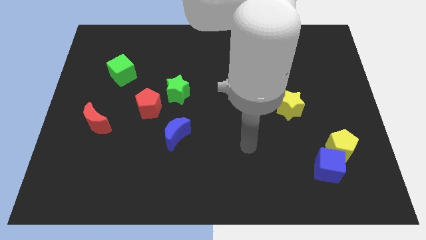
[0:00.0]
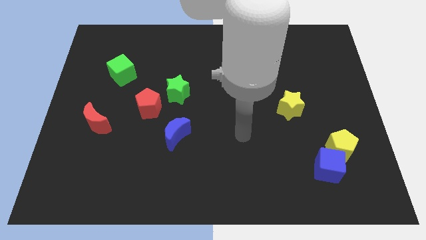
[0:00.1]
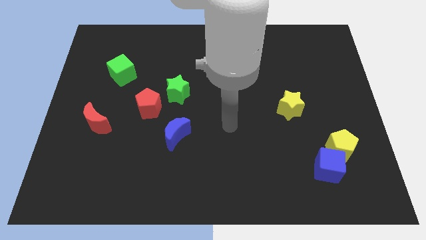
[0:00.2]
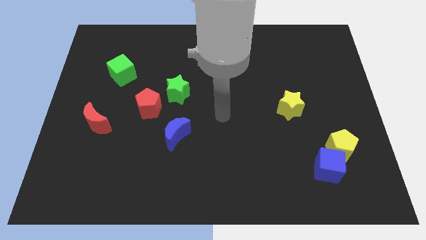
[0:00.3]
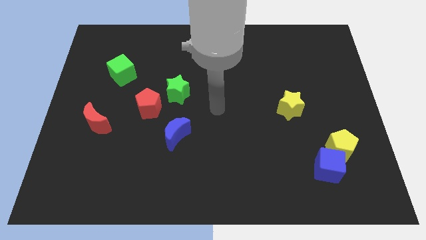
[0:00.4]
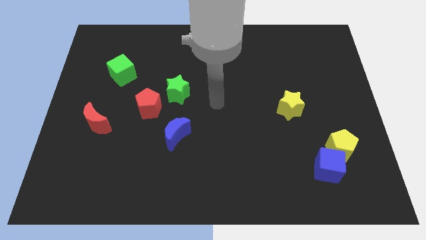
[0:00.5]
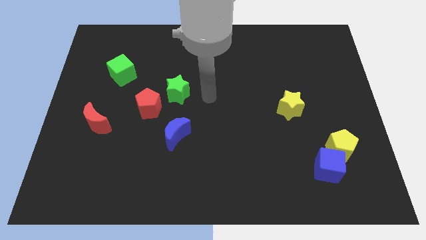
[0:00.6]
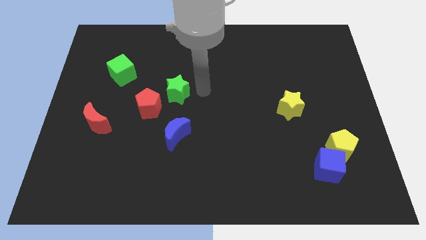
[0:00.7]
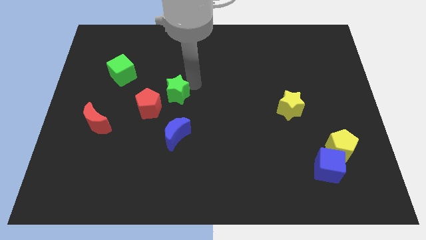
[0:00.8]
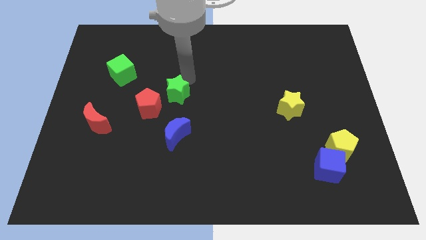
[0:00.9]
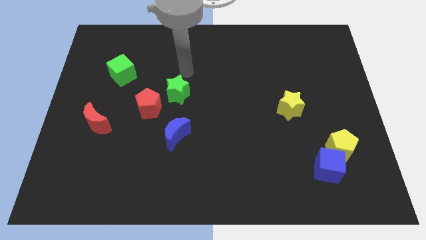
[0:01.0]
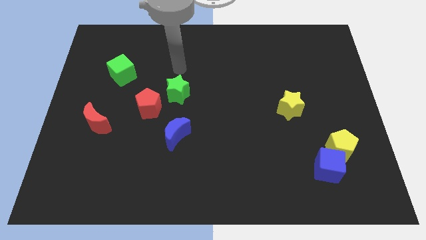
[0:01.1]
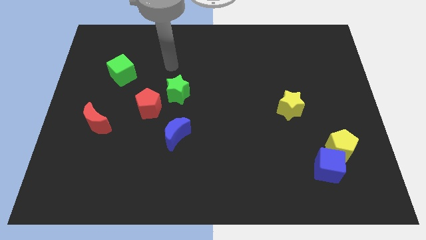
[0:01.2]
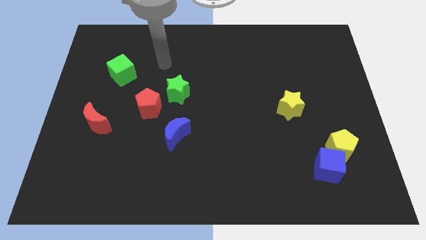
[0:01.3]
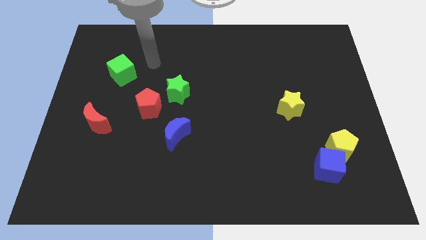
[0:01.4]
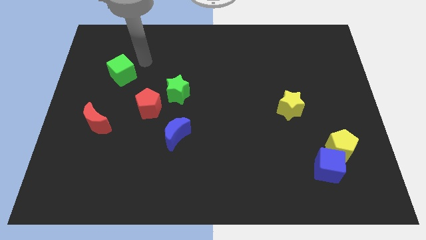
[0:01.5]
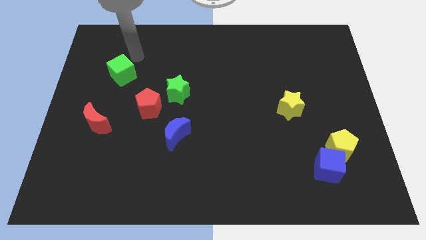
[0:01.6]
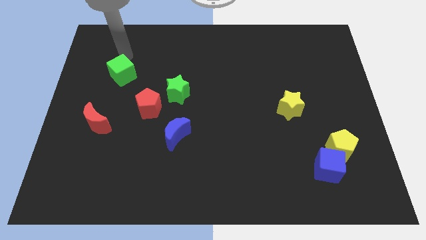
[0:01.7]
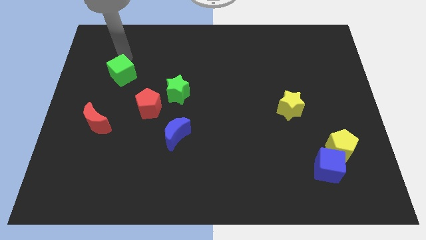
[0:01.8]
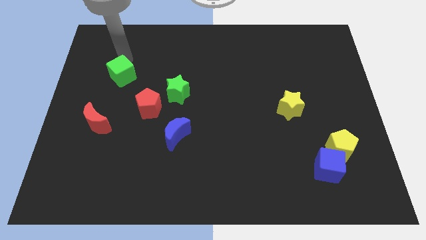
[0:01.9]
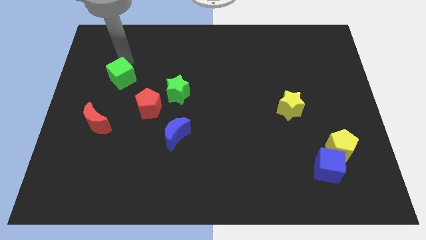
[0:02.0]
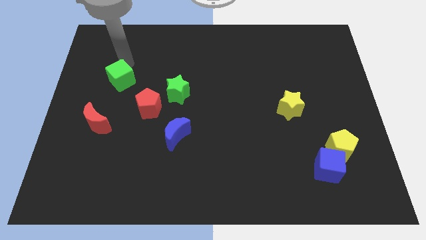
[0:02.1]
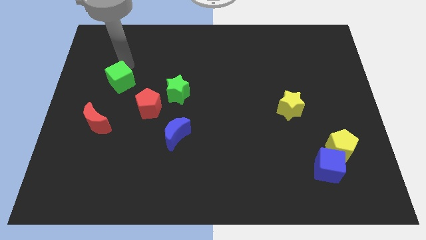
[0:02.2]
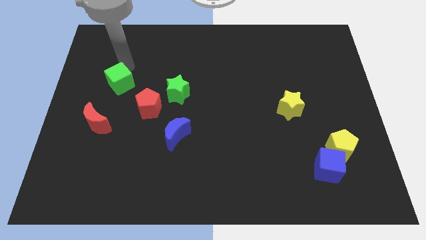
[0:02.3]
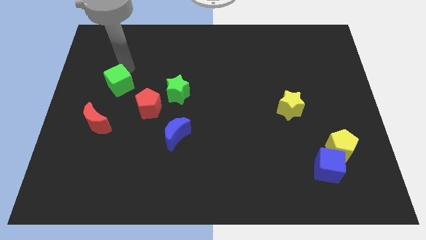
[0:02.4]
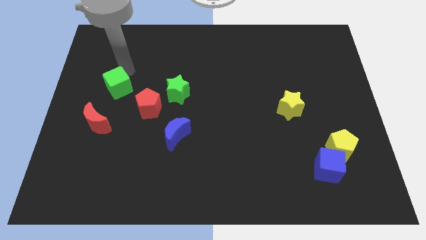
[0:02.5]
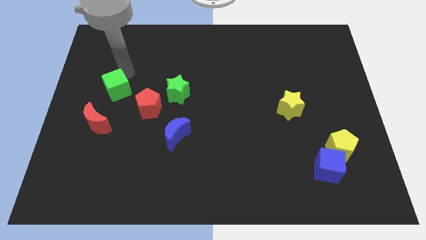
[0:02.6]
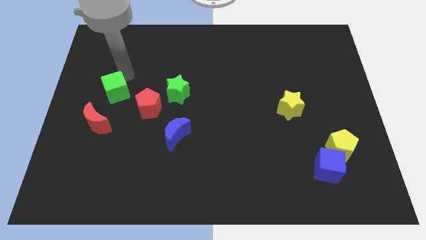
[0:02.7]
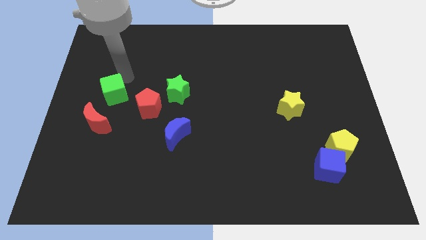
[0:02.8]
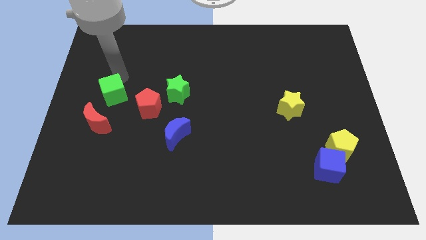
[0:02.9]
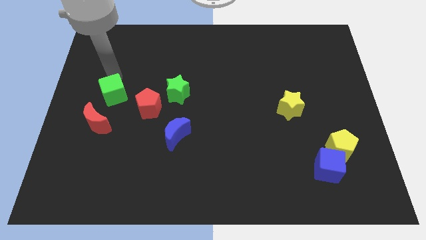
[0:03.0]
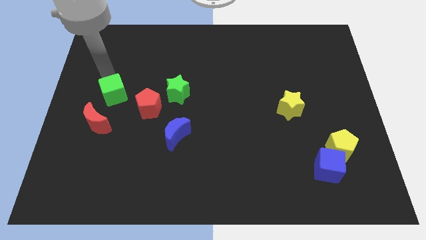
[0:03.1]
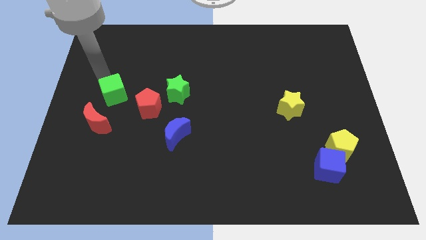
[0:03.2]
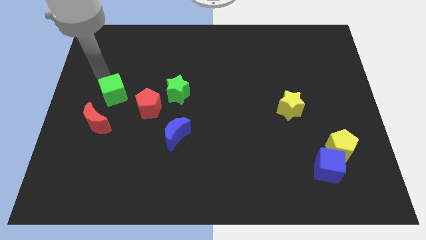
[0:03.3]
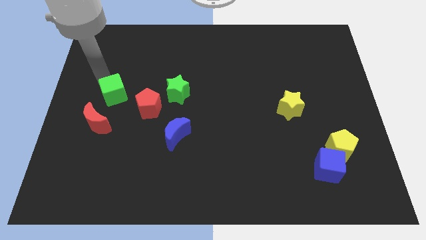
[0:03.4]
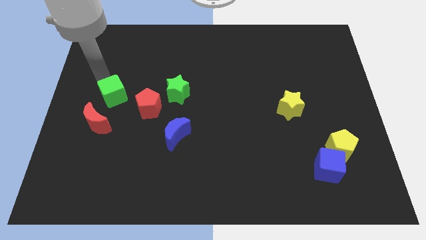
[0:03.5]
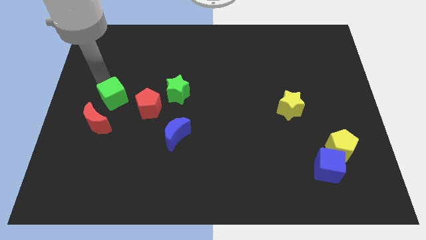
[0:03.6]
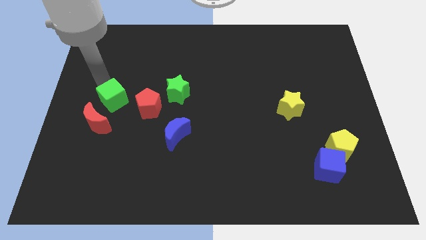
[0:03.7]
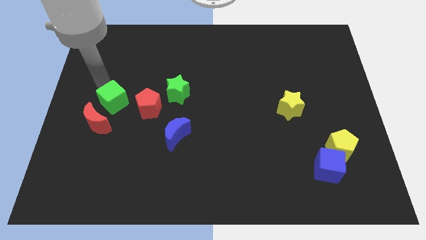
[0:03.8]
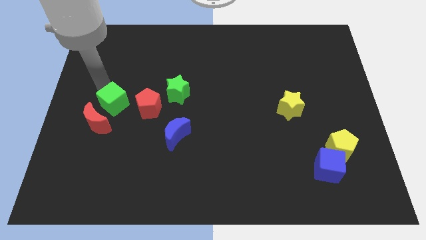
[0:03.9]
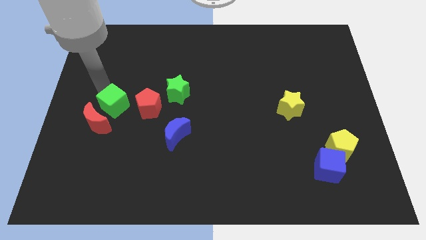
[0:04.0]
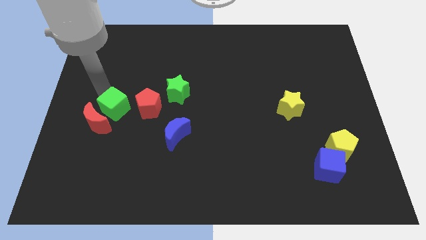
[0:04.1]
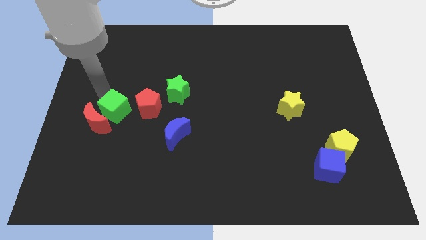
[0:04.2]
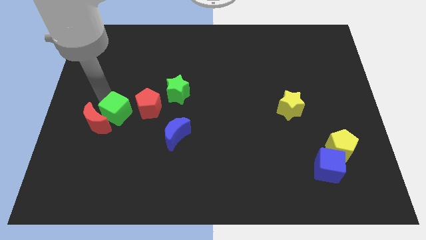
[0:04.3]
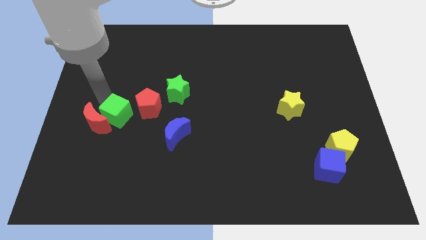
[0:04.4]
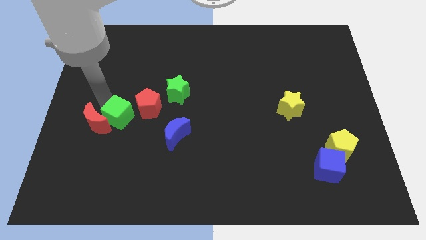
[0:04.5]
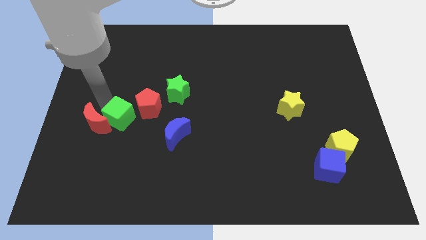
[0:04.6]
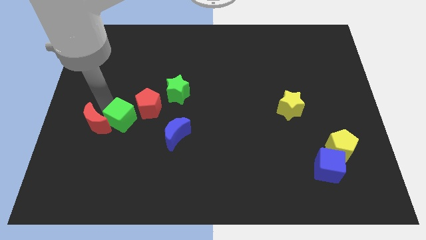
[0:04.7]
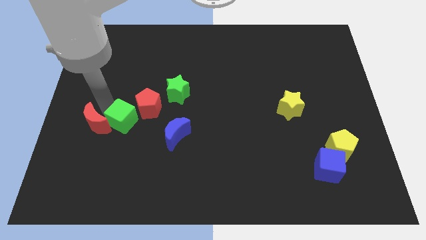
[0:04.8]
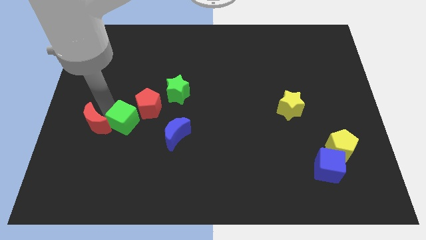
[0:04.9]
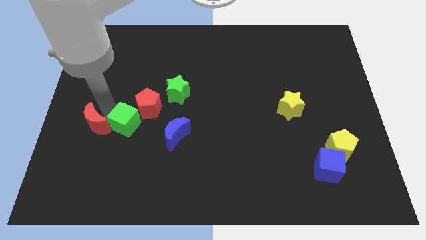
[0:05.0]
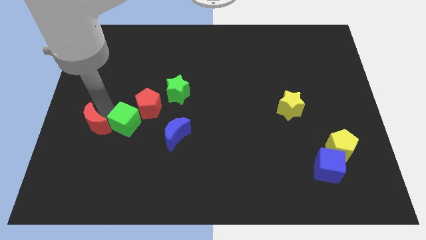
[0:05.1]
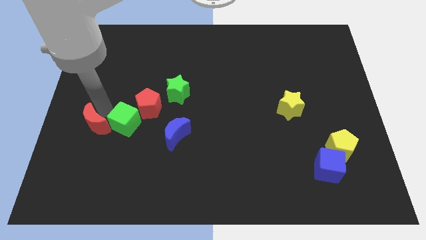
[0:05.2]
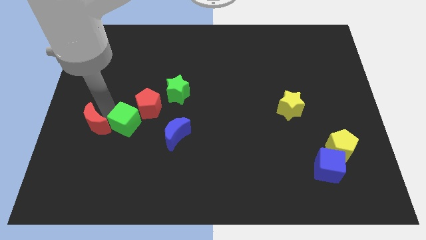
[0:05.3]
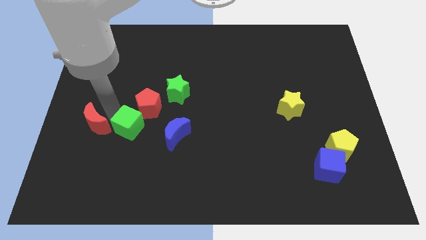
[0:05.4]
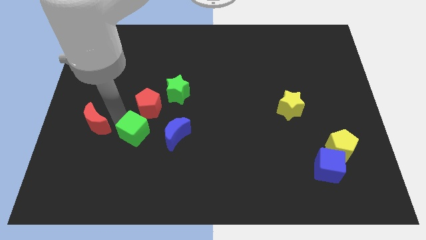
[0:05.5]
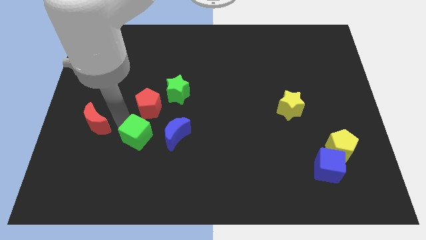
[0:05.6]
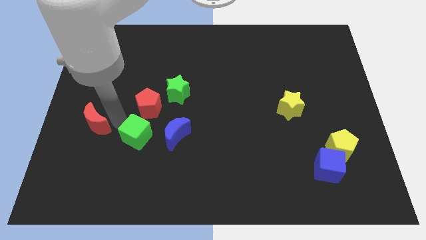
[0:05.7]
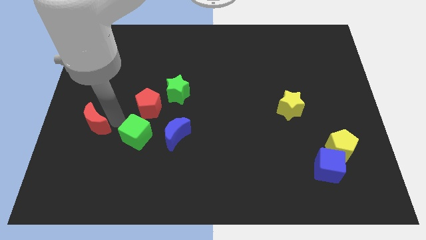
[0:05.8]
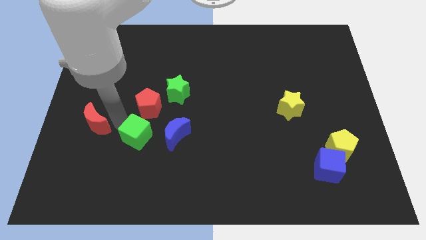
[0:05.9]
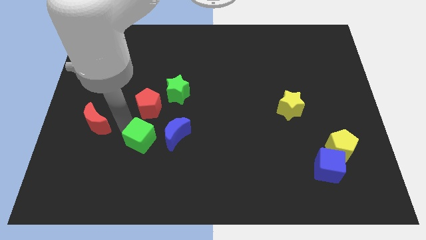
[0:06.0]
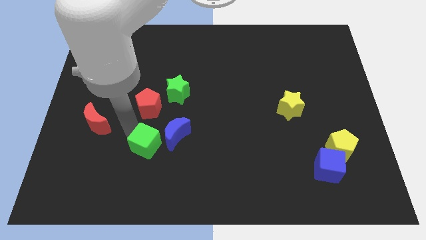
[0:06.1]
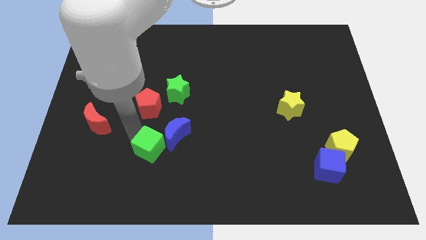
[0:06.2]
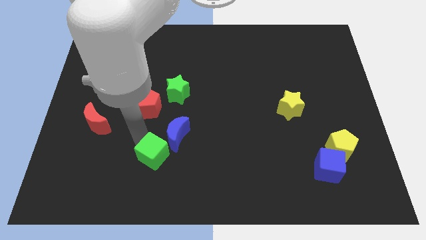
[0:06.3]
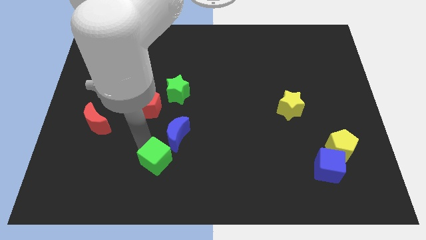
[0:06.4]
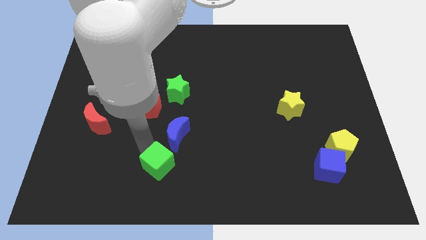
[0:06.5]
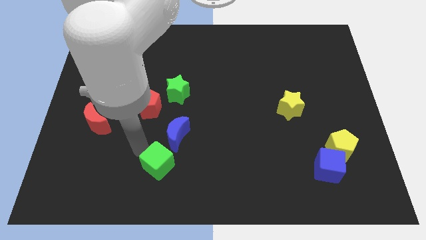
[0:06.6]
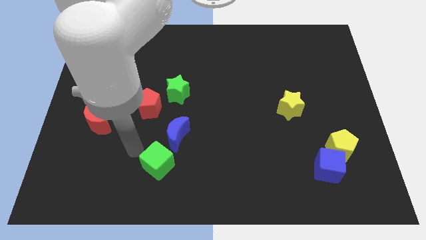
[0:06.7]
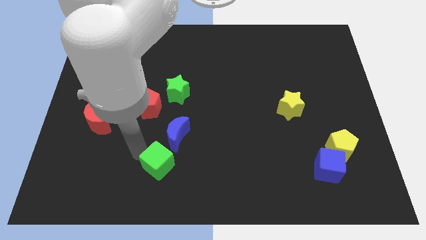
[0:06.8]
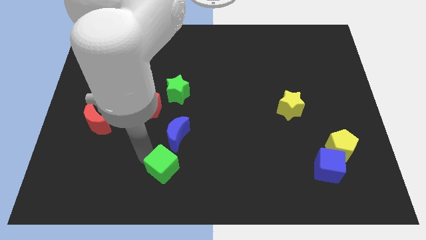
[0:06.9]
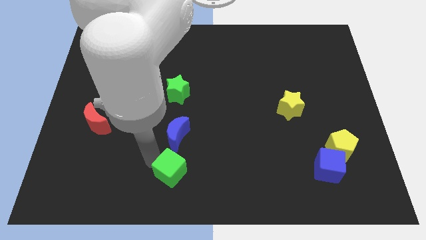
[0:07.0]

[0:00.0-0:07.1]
move the green cube to the bottom side

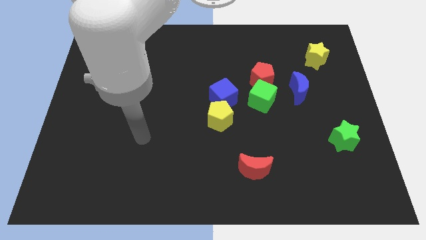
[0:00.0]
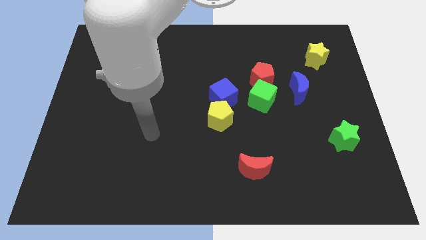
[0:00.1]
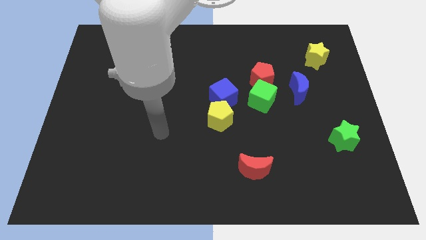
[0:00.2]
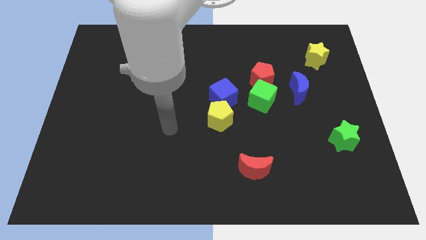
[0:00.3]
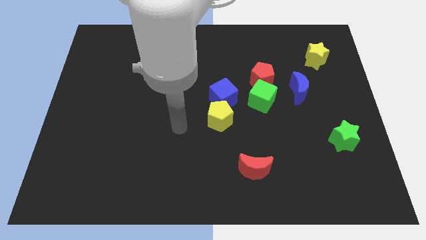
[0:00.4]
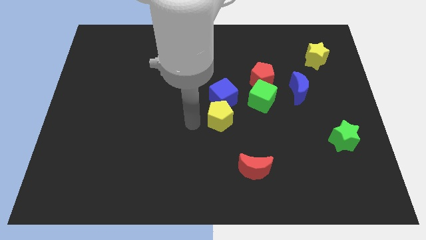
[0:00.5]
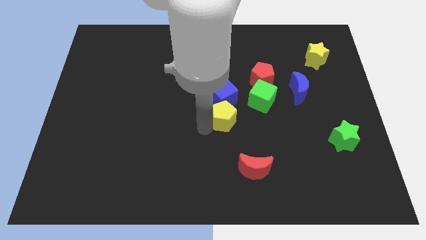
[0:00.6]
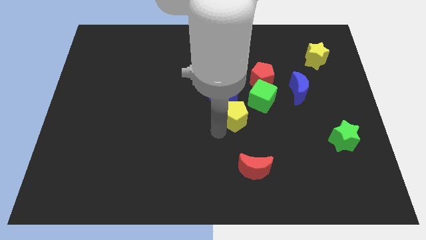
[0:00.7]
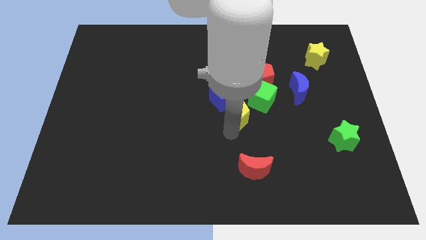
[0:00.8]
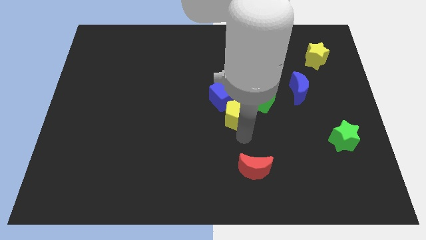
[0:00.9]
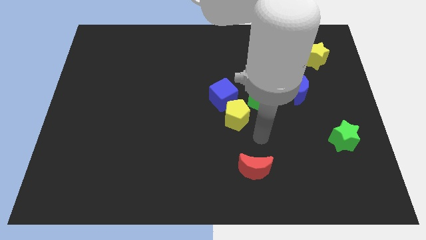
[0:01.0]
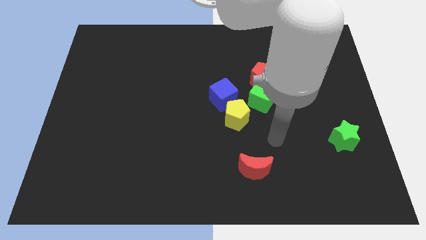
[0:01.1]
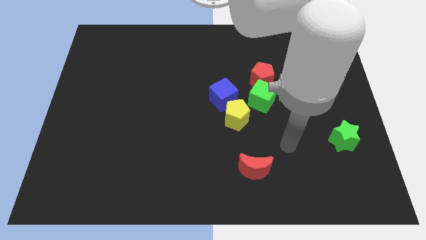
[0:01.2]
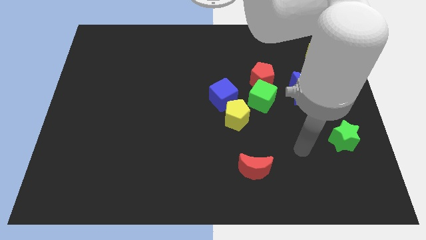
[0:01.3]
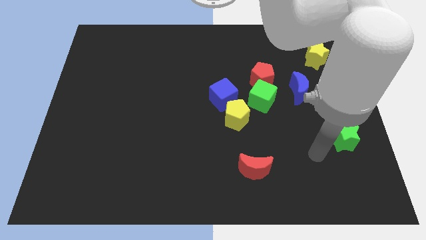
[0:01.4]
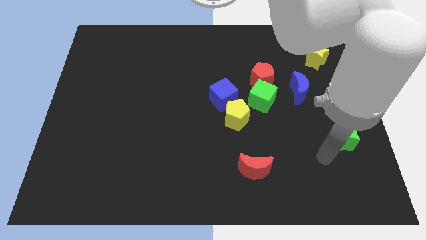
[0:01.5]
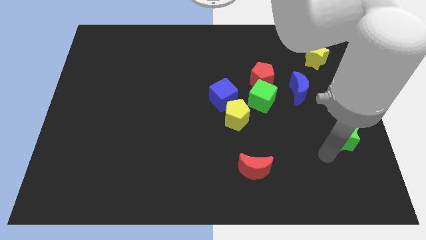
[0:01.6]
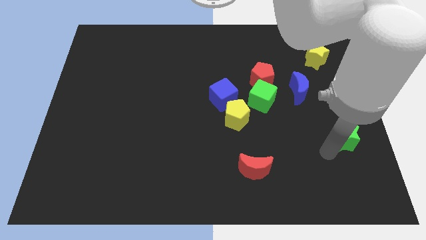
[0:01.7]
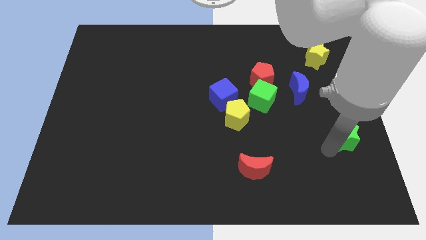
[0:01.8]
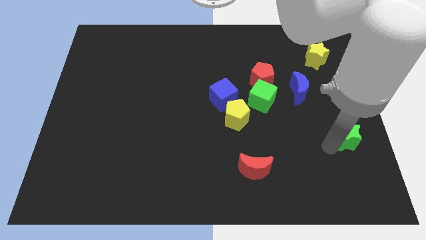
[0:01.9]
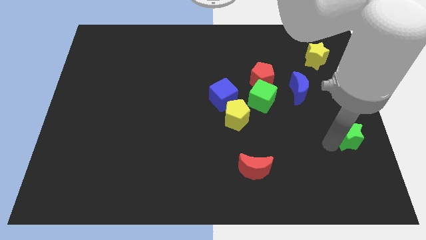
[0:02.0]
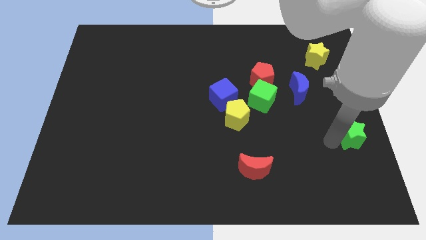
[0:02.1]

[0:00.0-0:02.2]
put the green star to the center right
